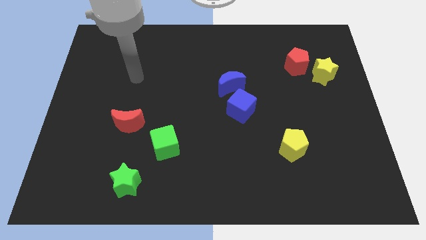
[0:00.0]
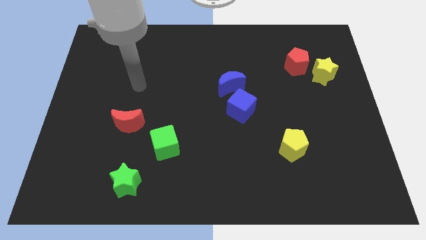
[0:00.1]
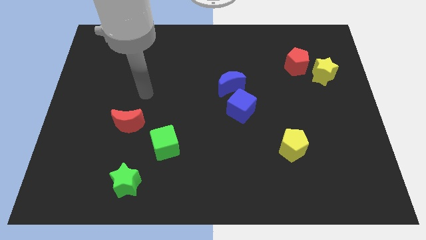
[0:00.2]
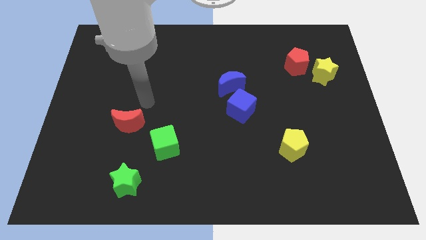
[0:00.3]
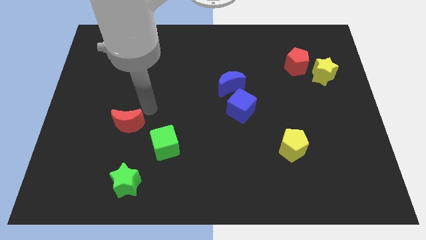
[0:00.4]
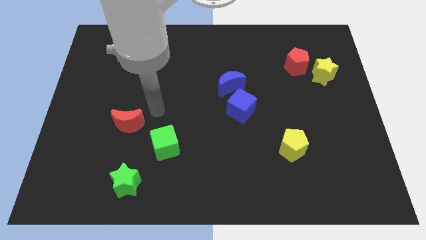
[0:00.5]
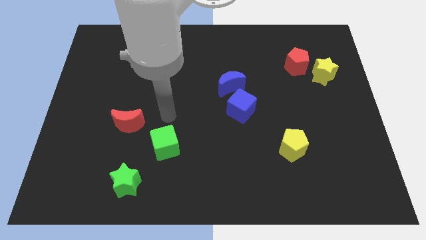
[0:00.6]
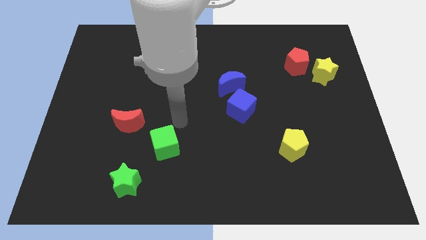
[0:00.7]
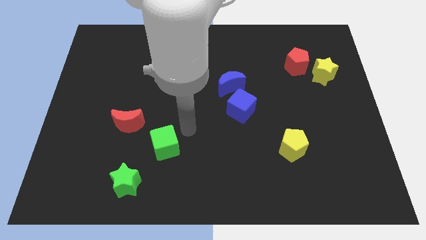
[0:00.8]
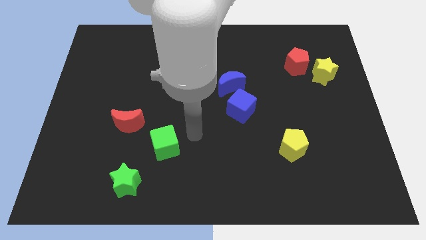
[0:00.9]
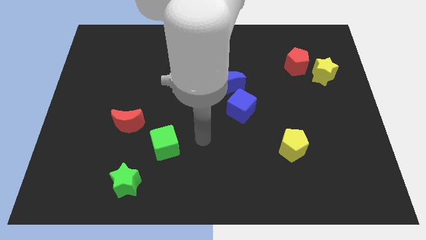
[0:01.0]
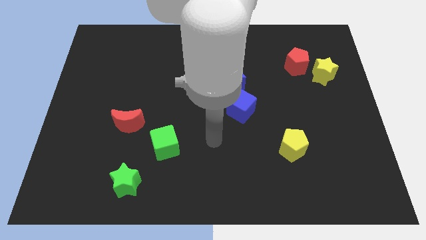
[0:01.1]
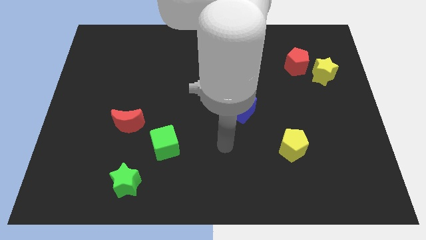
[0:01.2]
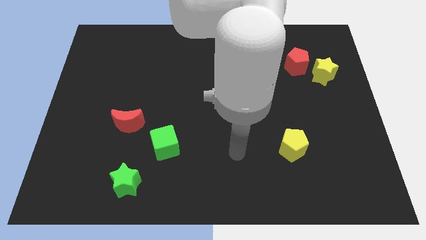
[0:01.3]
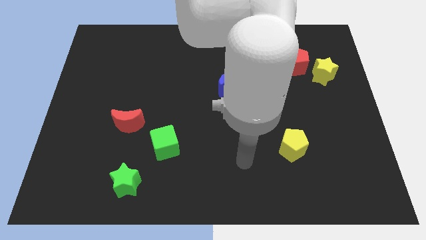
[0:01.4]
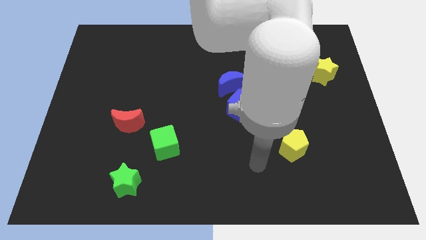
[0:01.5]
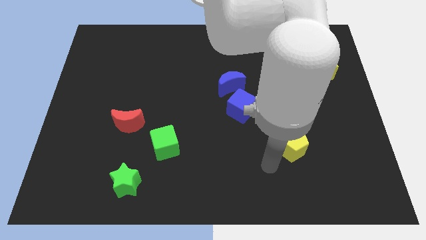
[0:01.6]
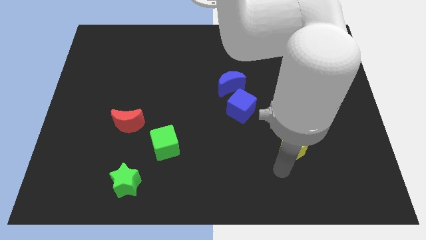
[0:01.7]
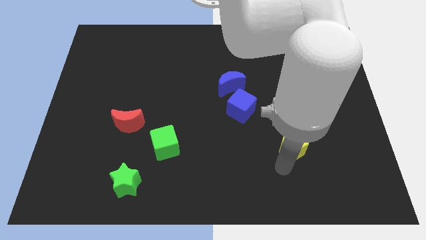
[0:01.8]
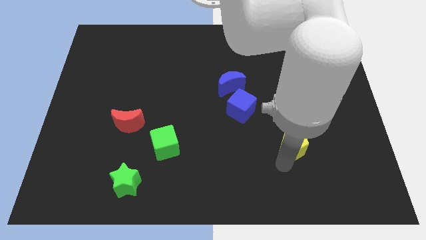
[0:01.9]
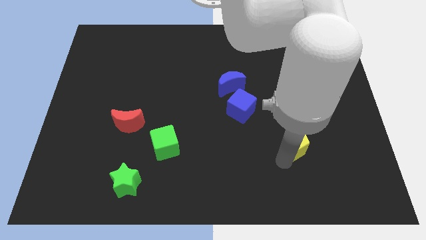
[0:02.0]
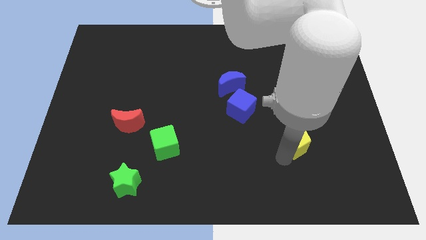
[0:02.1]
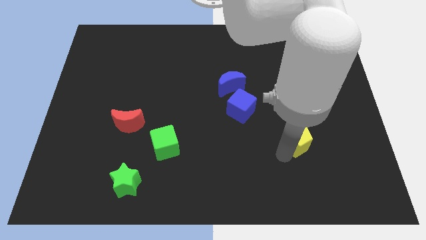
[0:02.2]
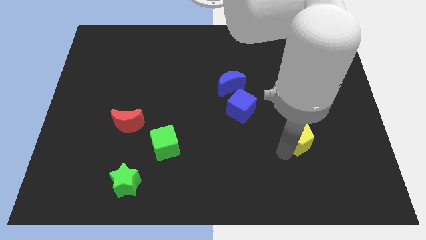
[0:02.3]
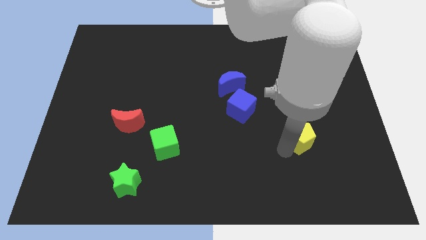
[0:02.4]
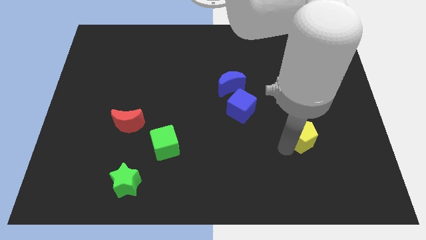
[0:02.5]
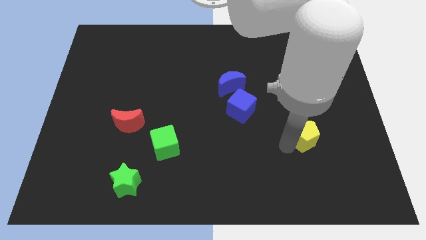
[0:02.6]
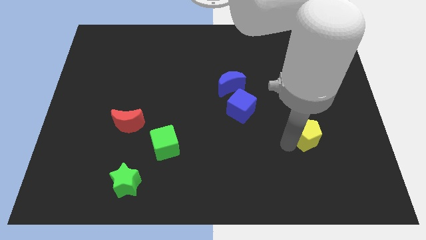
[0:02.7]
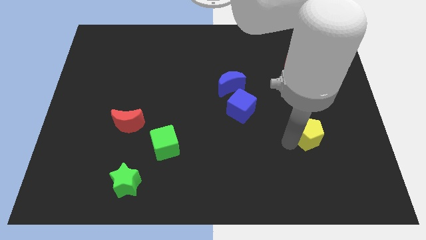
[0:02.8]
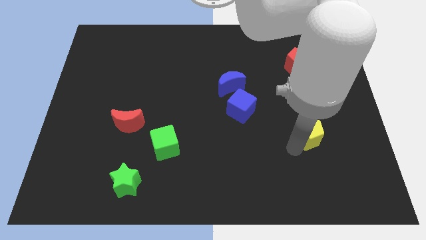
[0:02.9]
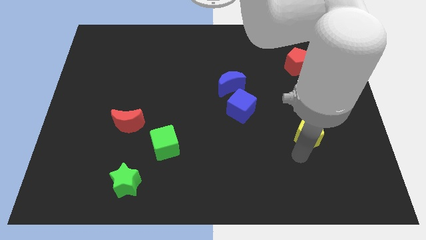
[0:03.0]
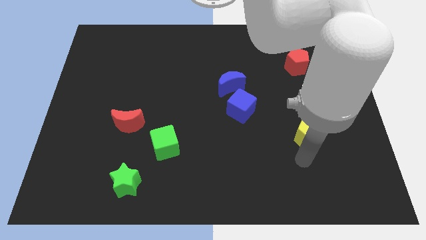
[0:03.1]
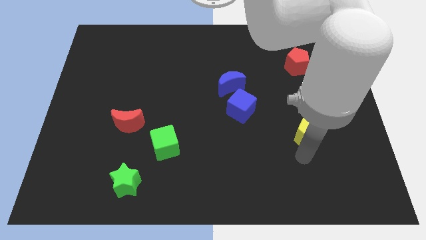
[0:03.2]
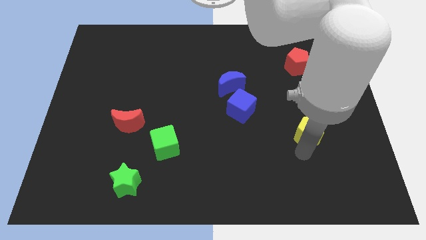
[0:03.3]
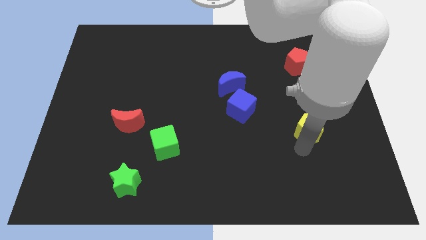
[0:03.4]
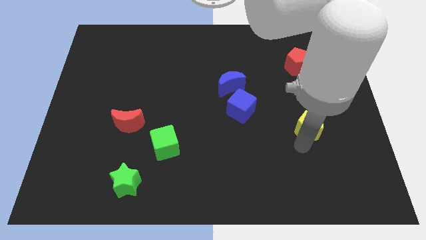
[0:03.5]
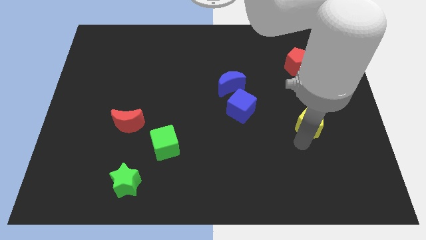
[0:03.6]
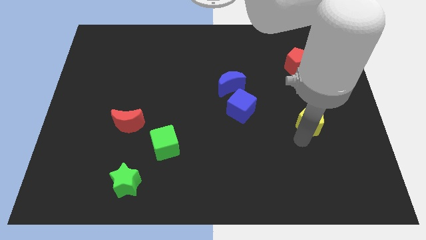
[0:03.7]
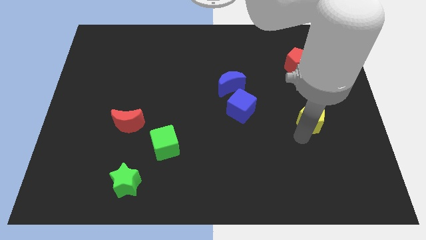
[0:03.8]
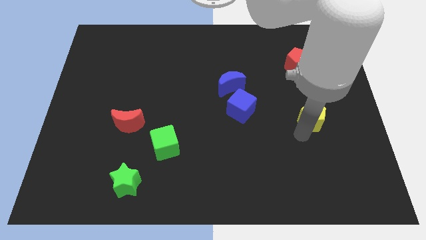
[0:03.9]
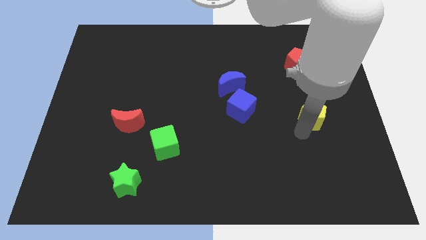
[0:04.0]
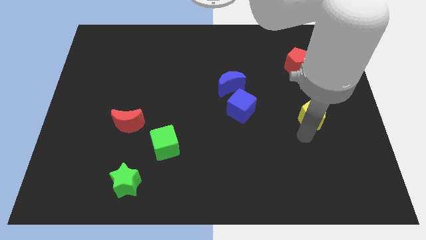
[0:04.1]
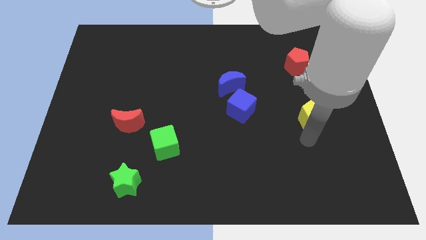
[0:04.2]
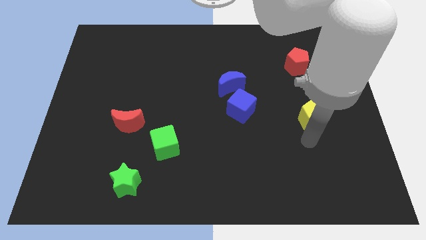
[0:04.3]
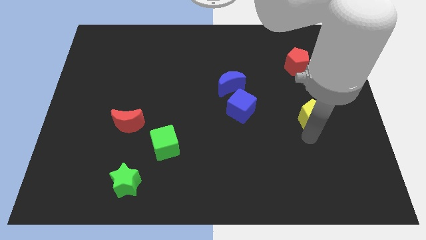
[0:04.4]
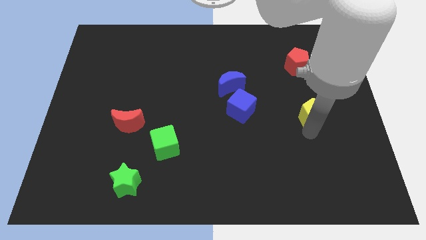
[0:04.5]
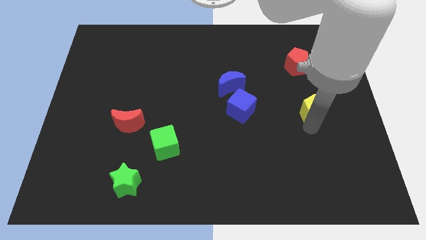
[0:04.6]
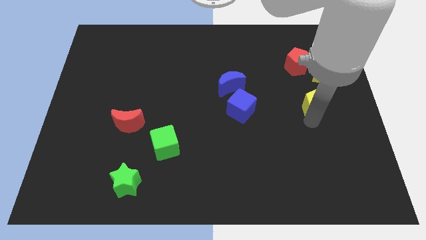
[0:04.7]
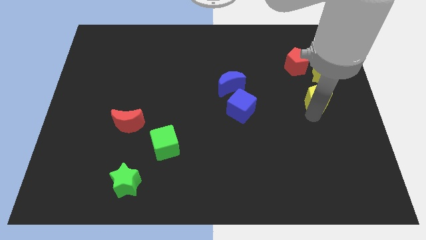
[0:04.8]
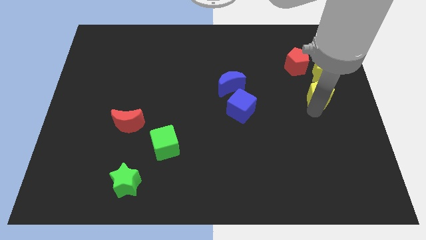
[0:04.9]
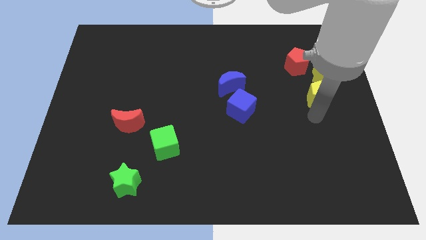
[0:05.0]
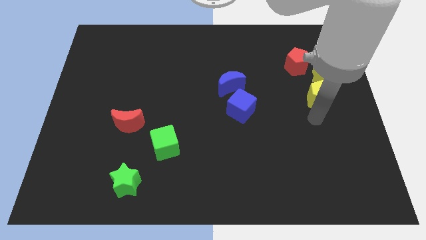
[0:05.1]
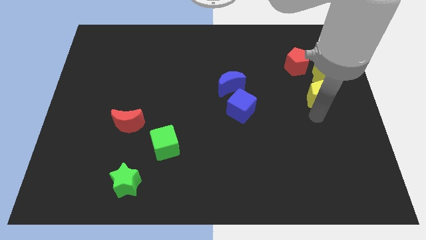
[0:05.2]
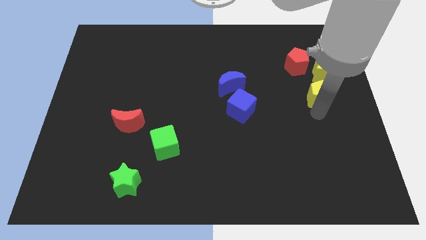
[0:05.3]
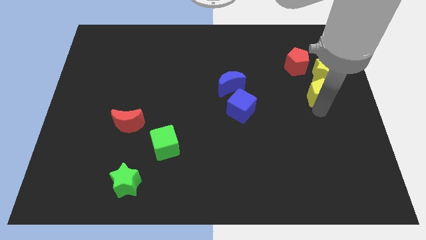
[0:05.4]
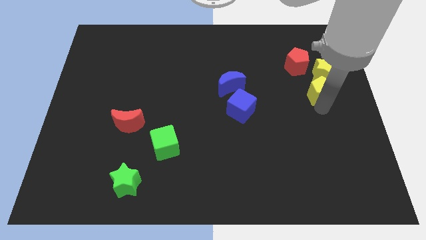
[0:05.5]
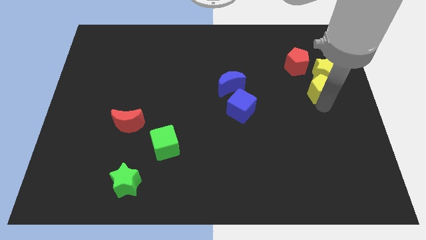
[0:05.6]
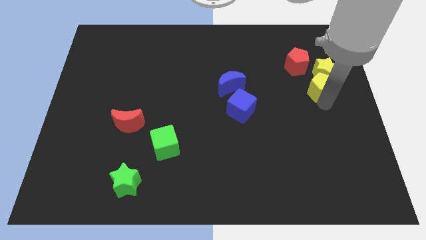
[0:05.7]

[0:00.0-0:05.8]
push the yellow pentagon to the yellow star

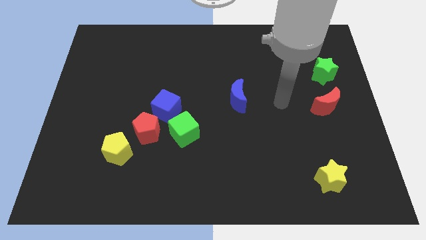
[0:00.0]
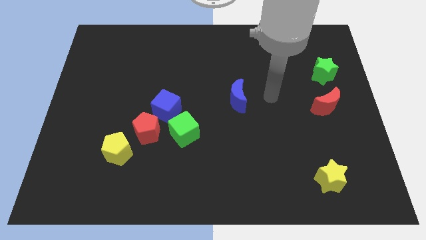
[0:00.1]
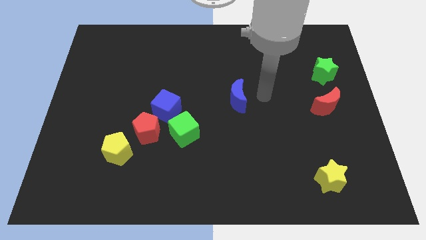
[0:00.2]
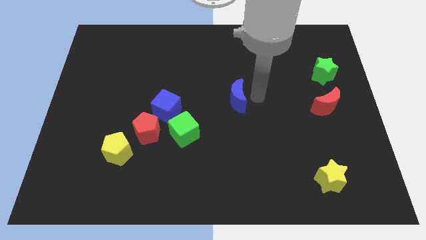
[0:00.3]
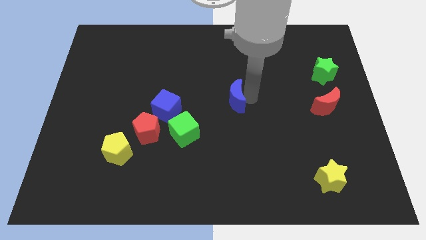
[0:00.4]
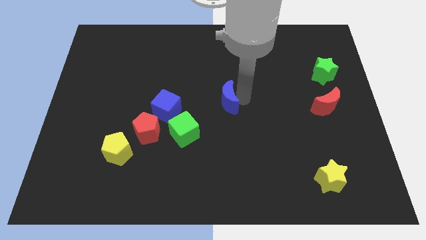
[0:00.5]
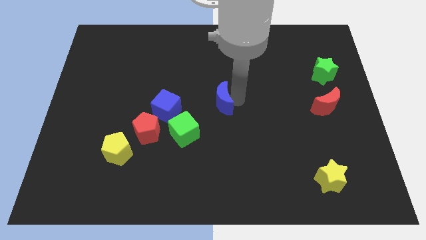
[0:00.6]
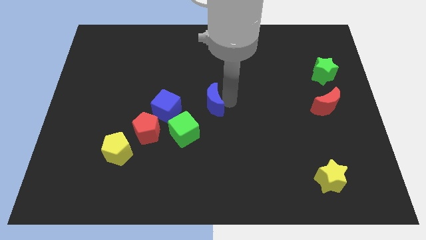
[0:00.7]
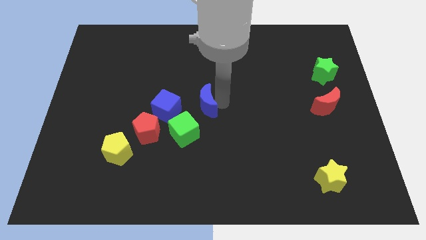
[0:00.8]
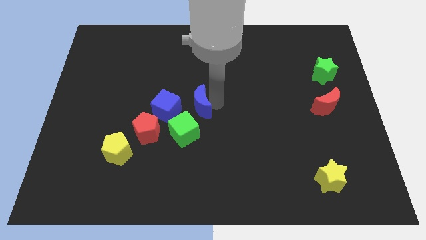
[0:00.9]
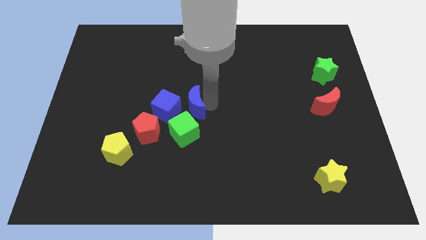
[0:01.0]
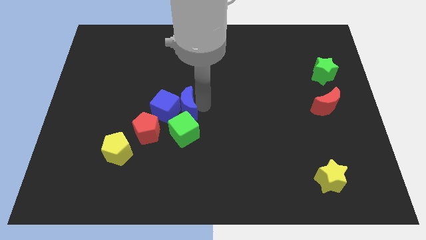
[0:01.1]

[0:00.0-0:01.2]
put the blue moon close to the blue cube

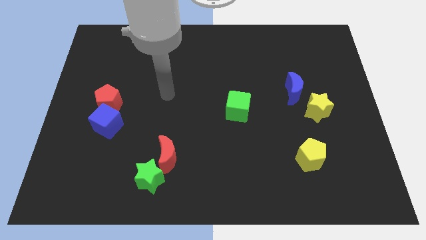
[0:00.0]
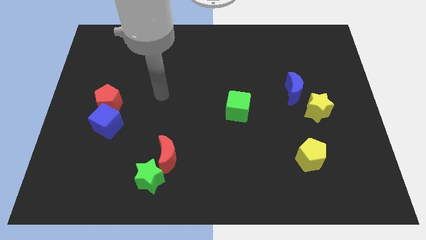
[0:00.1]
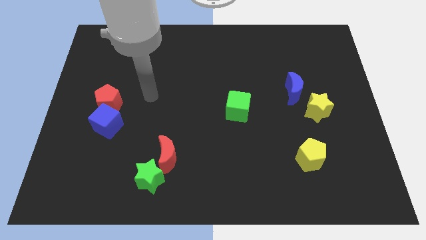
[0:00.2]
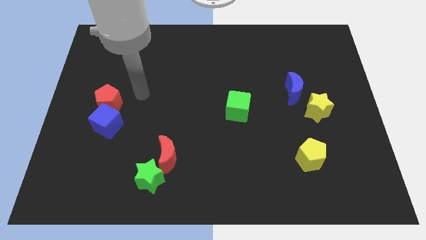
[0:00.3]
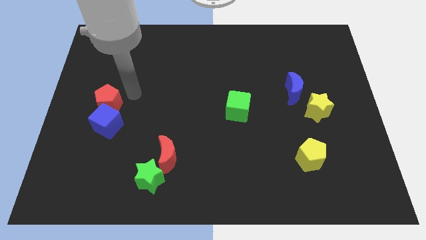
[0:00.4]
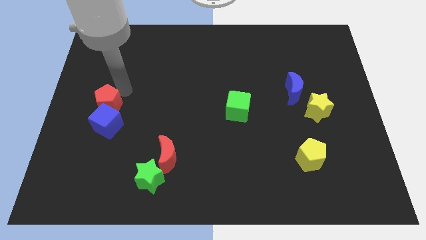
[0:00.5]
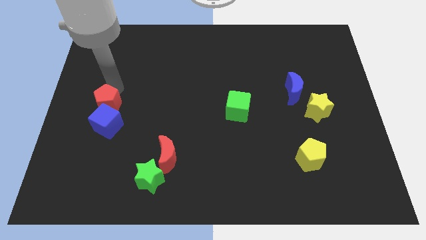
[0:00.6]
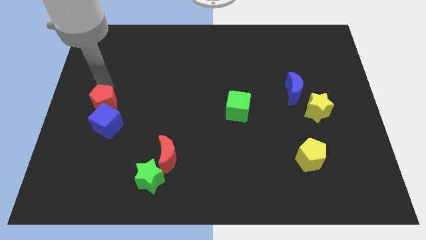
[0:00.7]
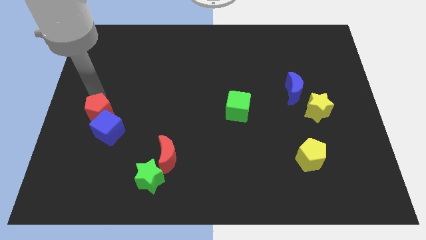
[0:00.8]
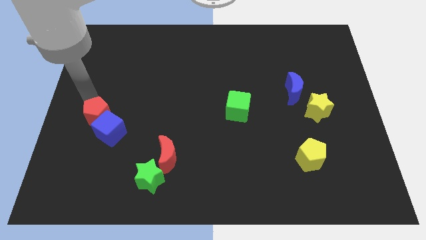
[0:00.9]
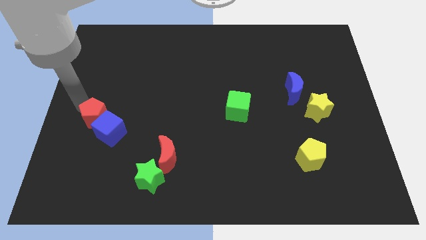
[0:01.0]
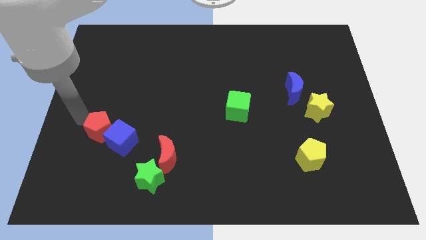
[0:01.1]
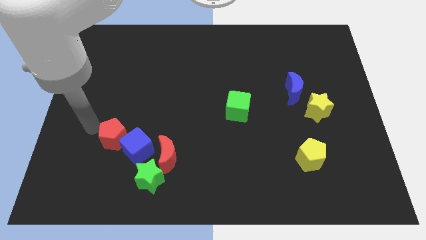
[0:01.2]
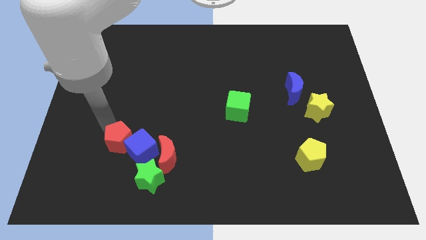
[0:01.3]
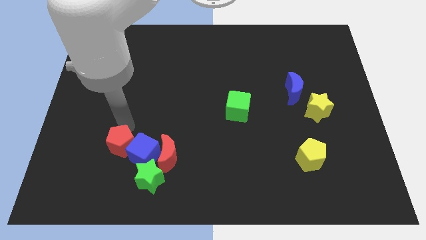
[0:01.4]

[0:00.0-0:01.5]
put the blue cube next to the green star
